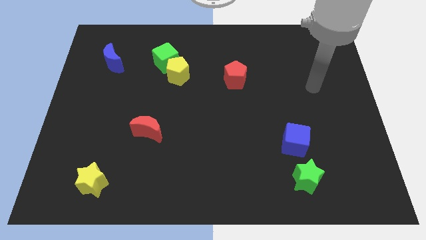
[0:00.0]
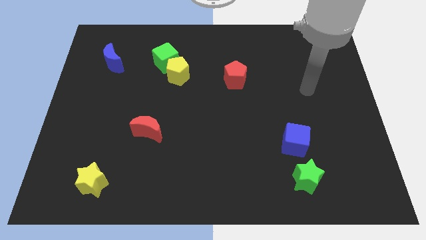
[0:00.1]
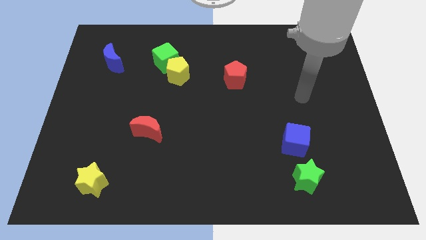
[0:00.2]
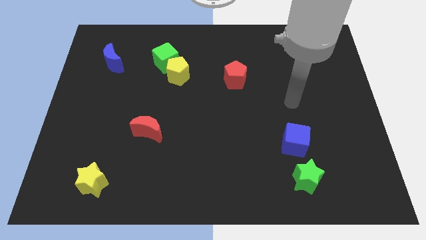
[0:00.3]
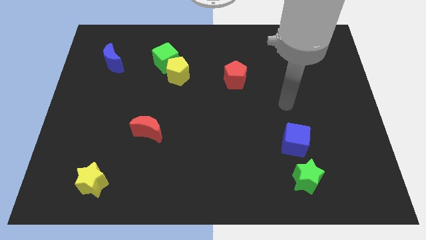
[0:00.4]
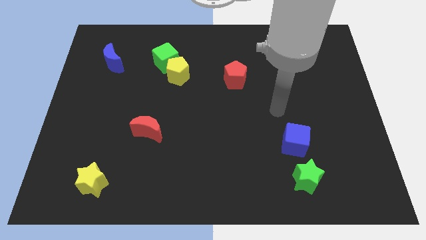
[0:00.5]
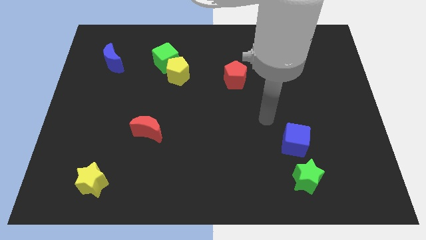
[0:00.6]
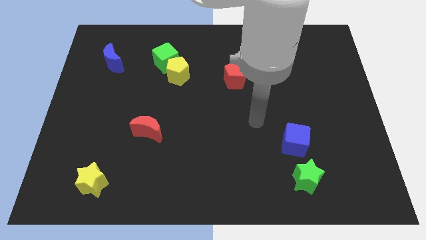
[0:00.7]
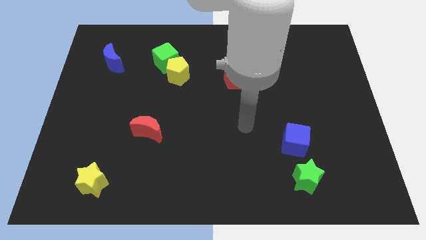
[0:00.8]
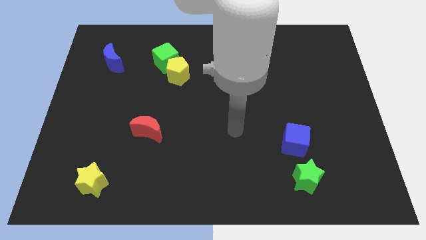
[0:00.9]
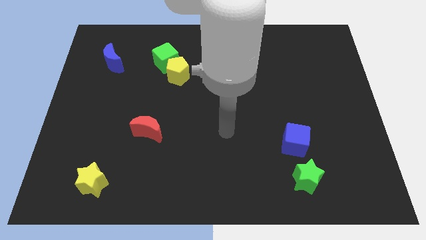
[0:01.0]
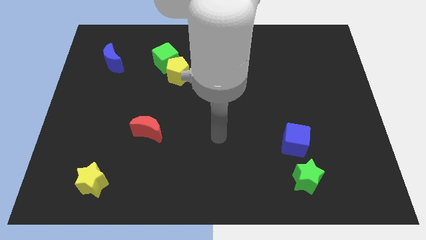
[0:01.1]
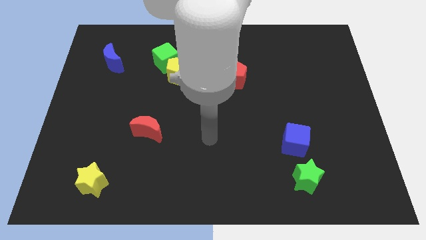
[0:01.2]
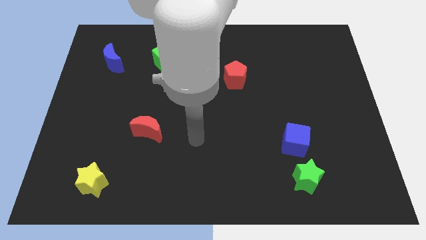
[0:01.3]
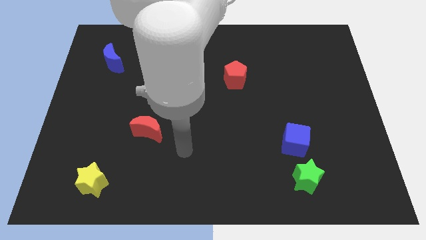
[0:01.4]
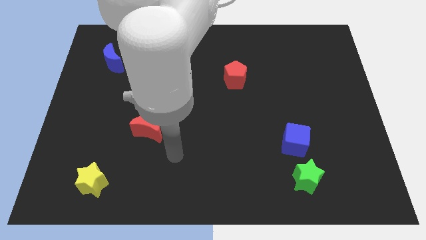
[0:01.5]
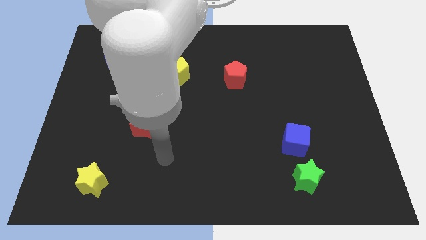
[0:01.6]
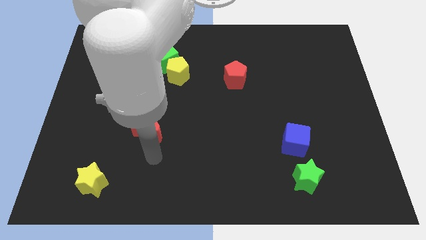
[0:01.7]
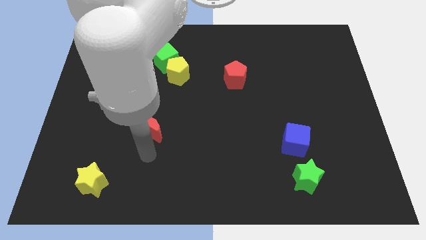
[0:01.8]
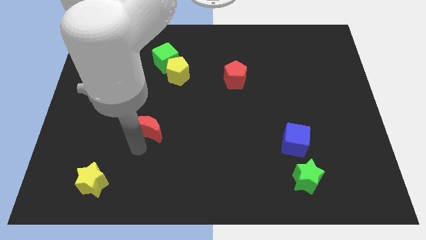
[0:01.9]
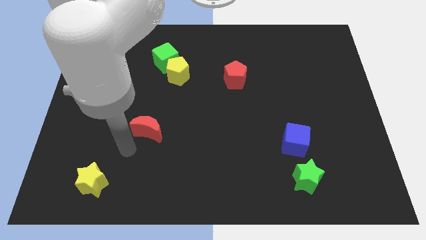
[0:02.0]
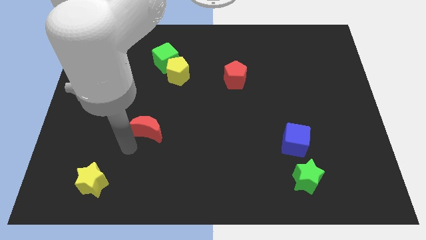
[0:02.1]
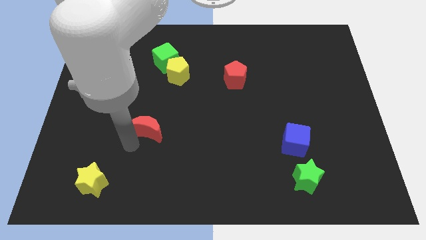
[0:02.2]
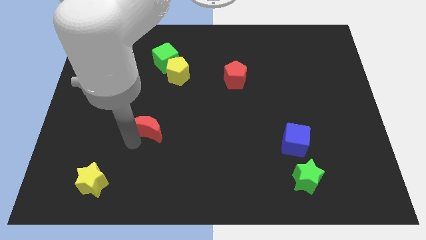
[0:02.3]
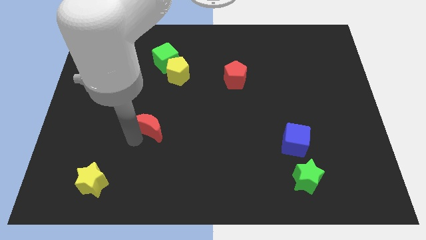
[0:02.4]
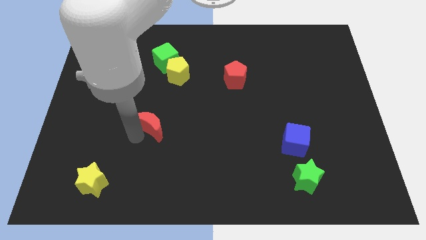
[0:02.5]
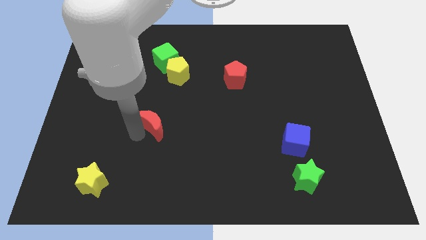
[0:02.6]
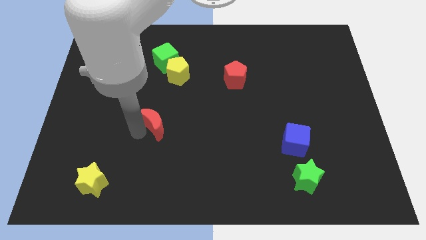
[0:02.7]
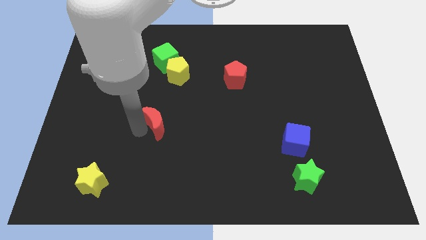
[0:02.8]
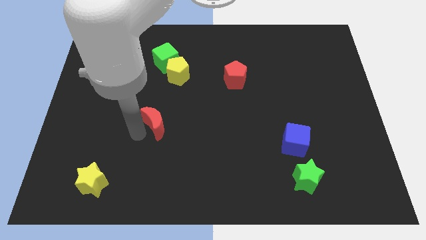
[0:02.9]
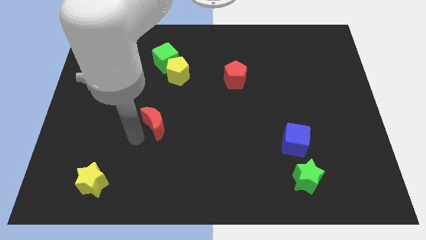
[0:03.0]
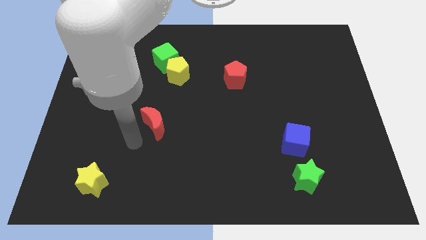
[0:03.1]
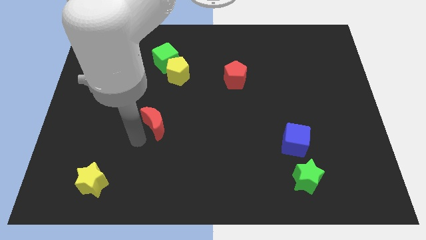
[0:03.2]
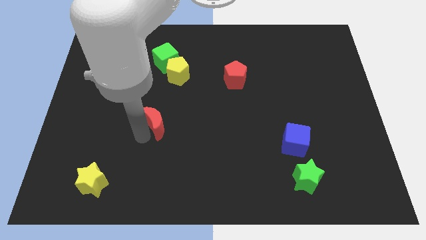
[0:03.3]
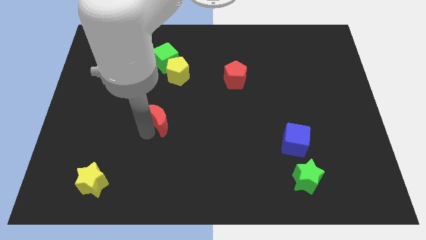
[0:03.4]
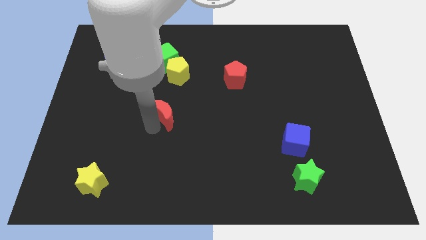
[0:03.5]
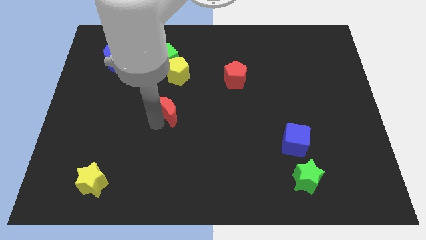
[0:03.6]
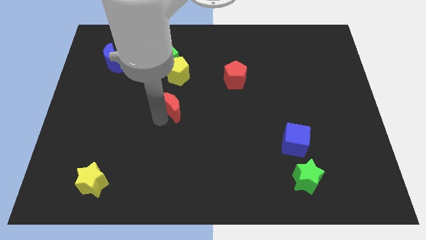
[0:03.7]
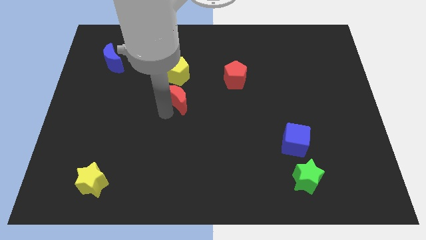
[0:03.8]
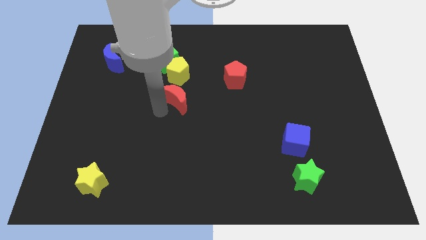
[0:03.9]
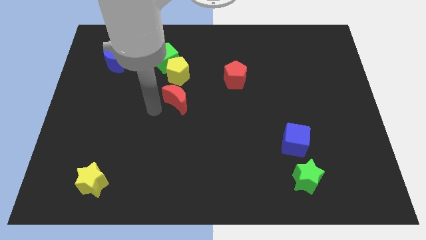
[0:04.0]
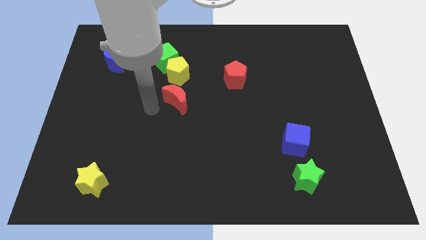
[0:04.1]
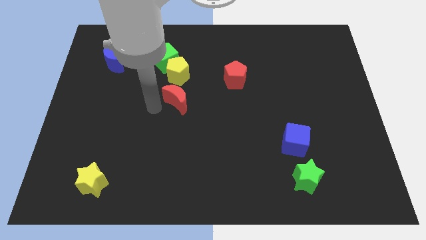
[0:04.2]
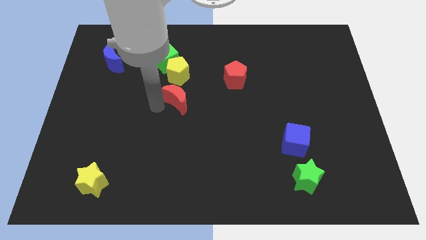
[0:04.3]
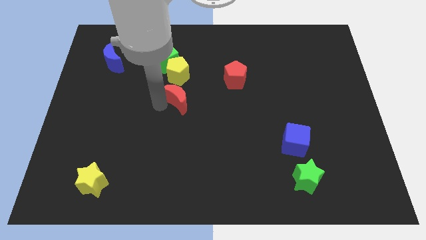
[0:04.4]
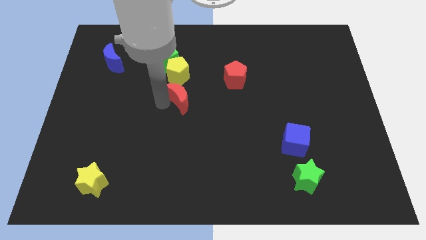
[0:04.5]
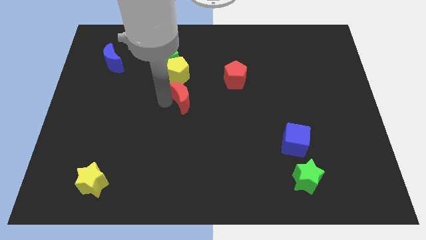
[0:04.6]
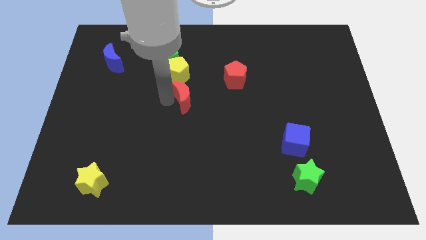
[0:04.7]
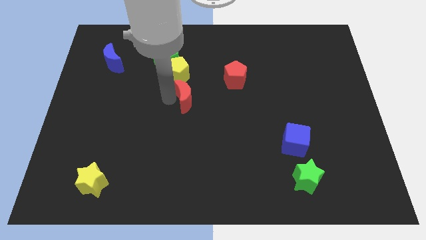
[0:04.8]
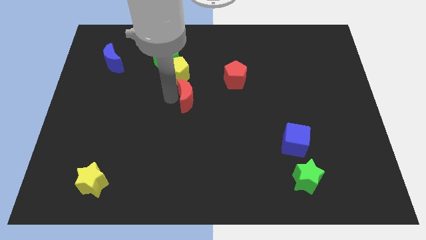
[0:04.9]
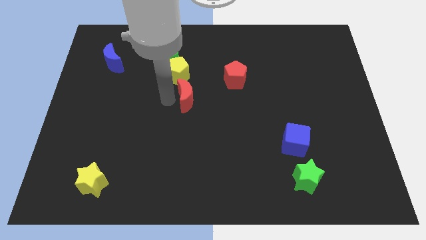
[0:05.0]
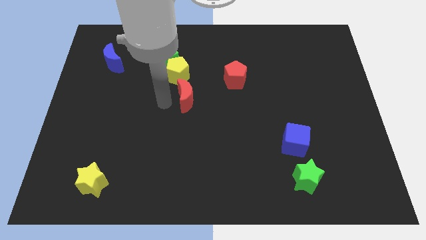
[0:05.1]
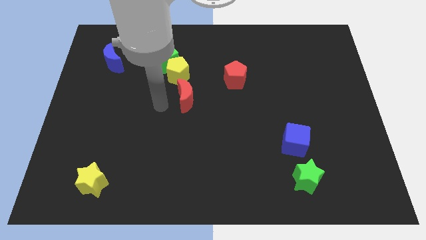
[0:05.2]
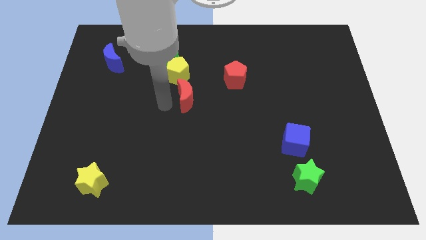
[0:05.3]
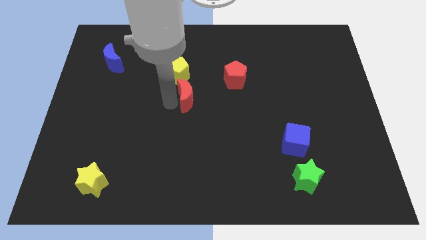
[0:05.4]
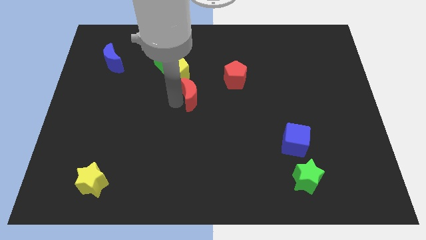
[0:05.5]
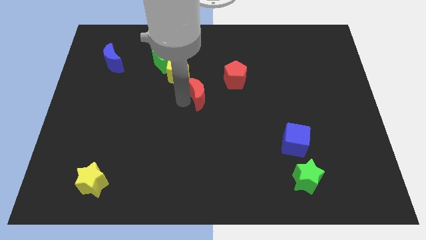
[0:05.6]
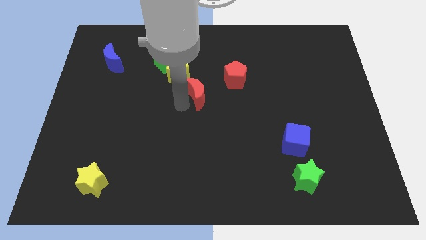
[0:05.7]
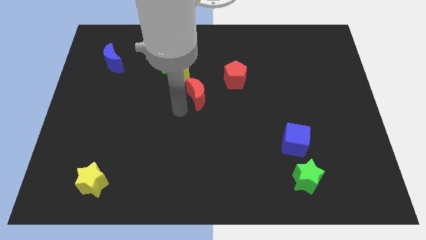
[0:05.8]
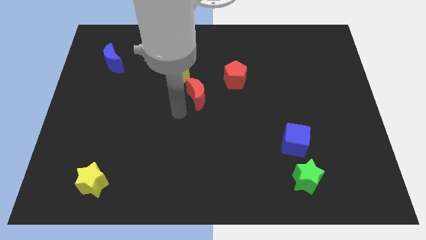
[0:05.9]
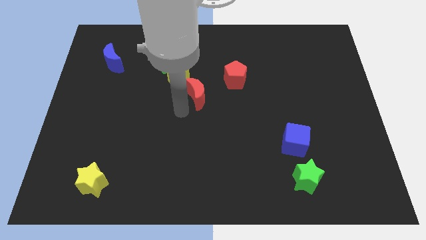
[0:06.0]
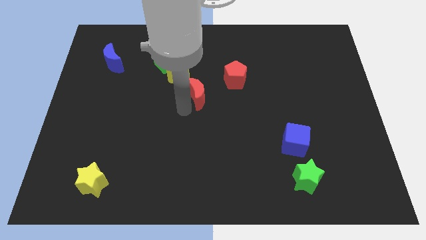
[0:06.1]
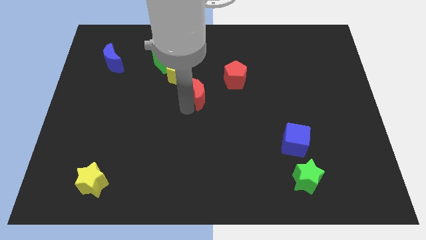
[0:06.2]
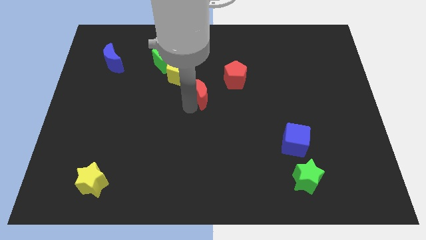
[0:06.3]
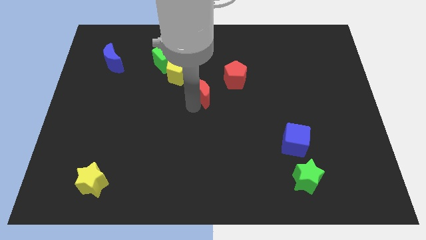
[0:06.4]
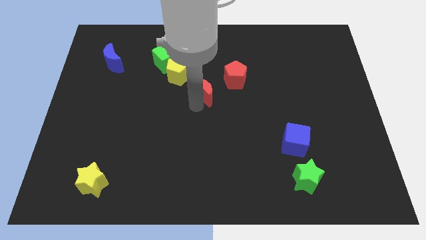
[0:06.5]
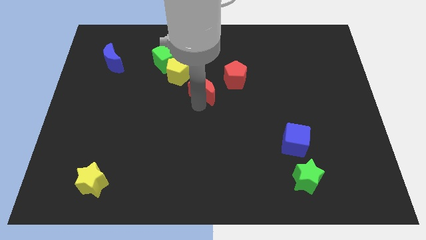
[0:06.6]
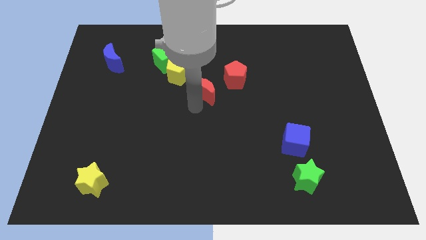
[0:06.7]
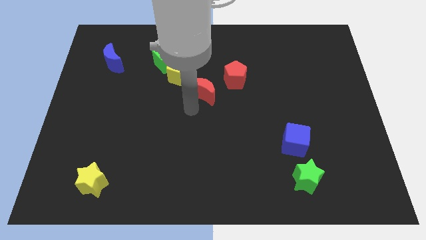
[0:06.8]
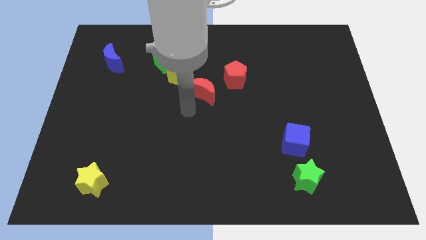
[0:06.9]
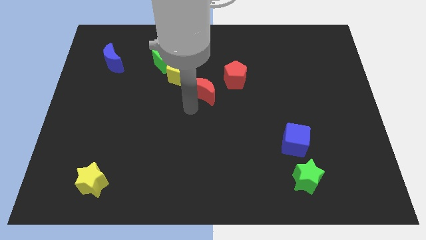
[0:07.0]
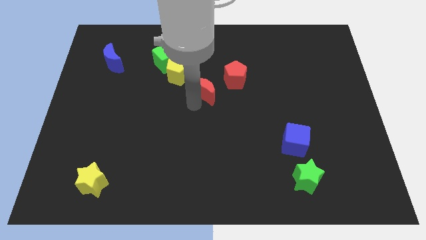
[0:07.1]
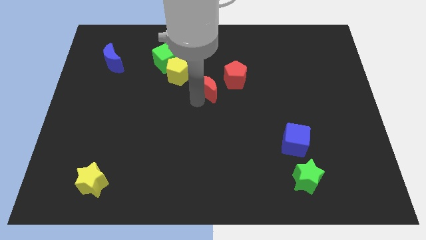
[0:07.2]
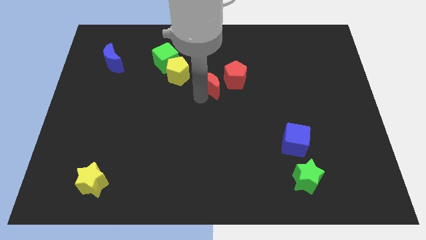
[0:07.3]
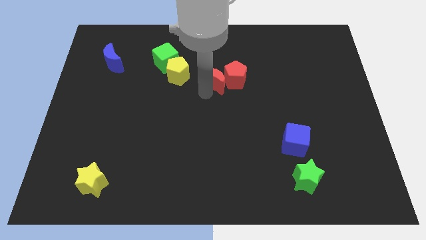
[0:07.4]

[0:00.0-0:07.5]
slide the red moon up and right

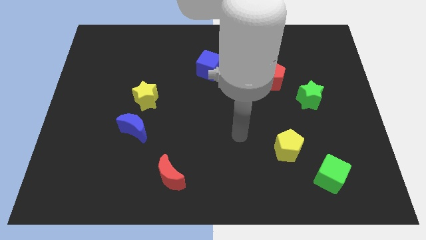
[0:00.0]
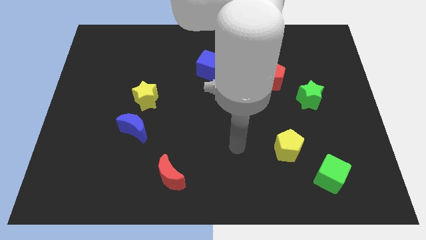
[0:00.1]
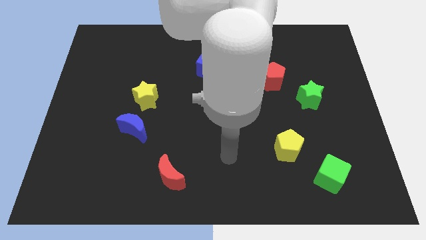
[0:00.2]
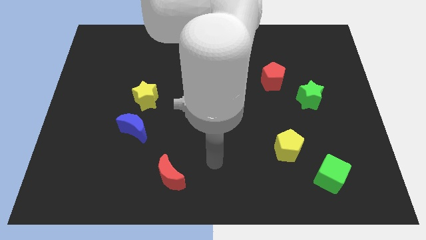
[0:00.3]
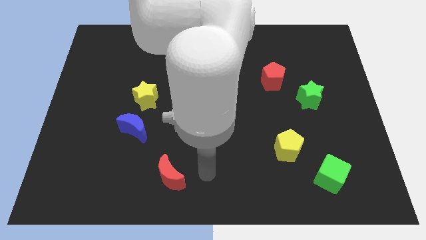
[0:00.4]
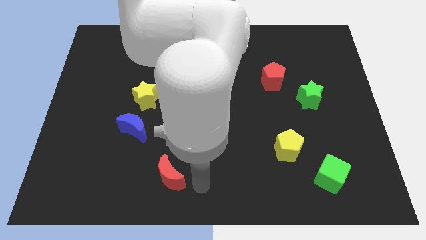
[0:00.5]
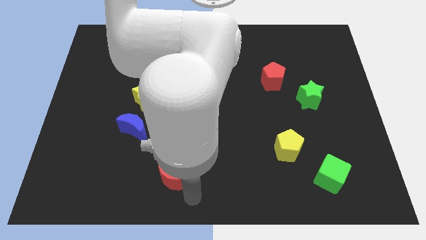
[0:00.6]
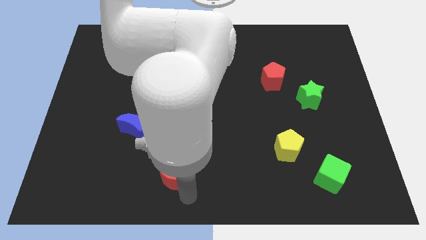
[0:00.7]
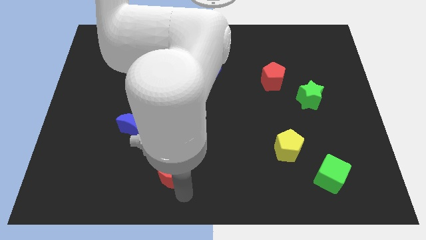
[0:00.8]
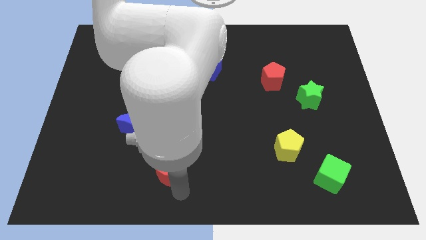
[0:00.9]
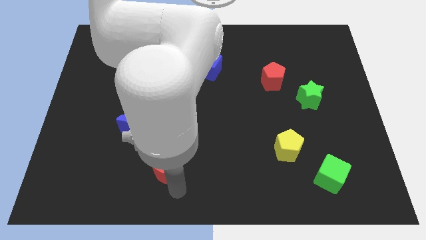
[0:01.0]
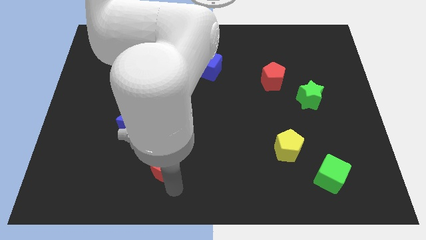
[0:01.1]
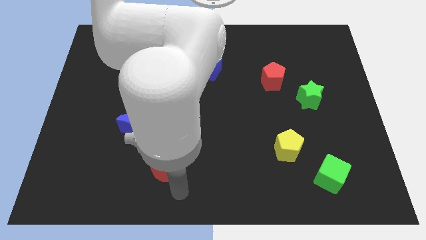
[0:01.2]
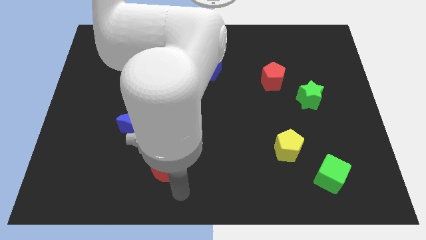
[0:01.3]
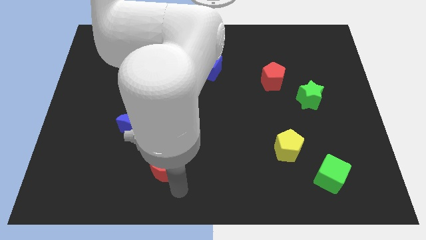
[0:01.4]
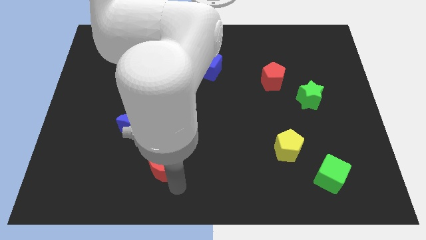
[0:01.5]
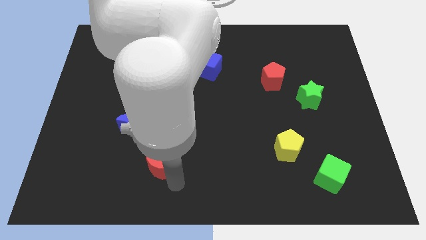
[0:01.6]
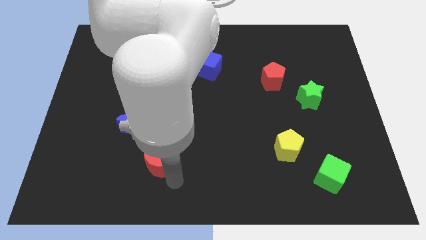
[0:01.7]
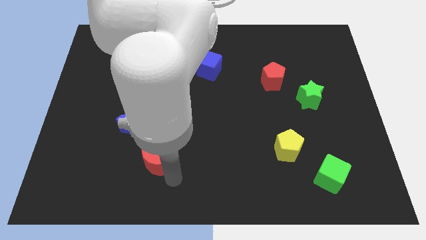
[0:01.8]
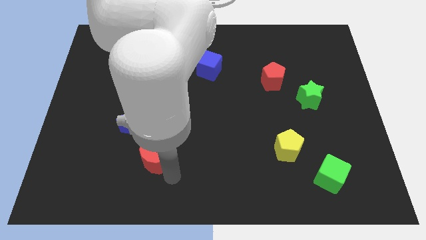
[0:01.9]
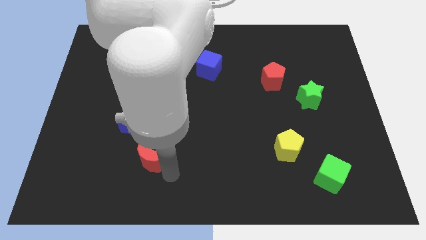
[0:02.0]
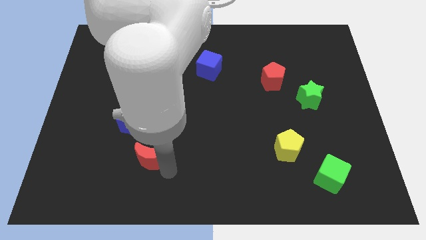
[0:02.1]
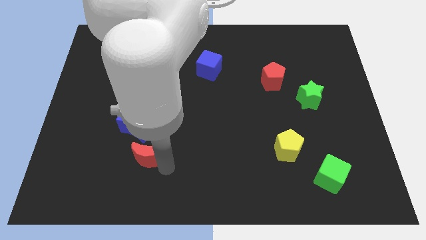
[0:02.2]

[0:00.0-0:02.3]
slightly slide the red moon diagonally up and to the left
